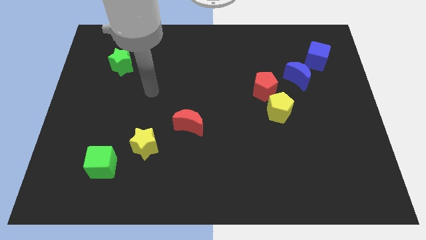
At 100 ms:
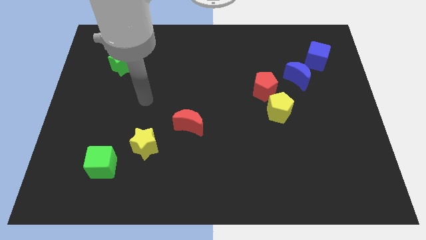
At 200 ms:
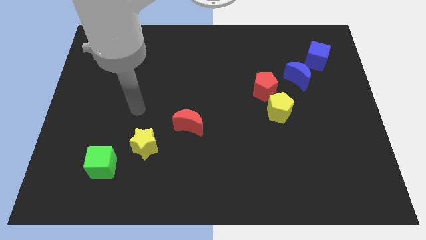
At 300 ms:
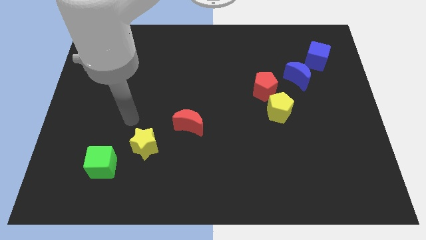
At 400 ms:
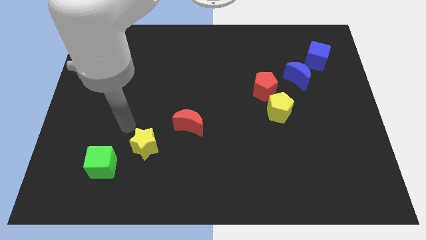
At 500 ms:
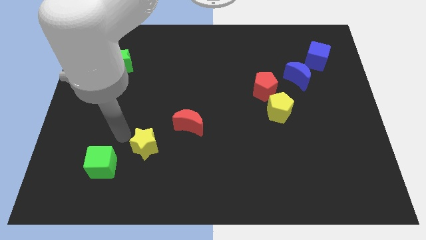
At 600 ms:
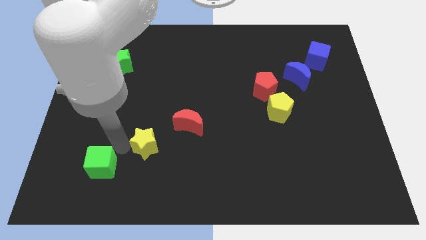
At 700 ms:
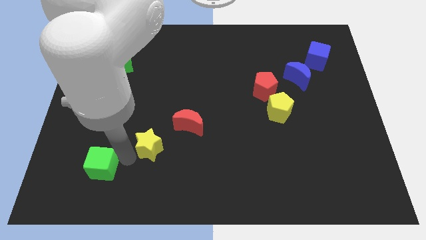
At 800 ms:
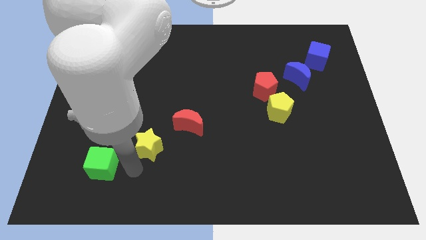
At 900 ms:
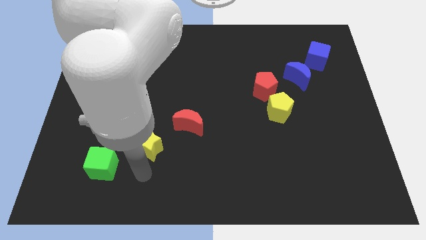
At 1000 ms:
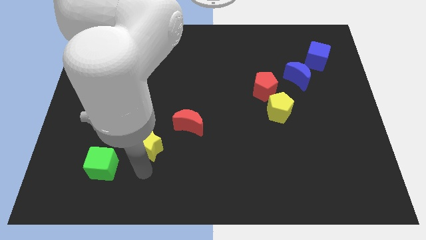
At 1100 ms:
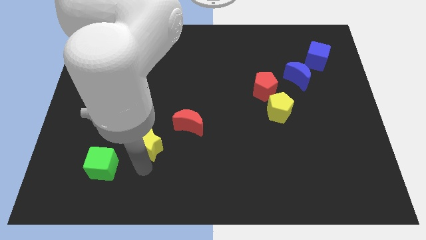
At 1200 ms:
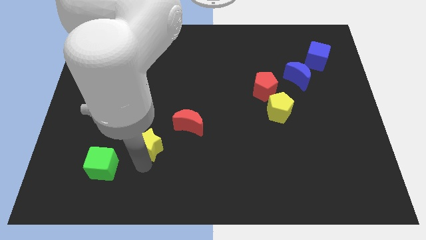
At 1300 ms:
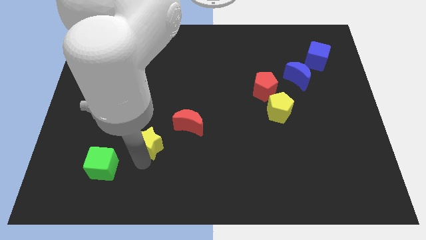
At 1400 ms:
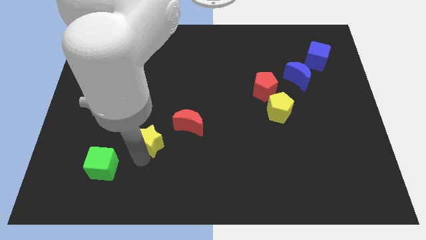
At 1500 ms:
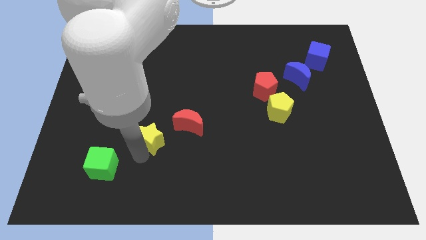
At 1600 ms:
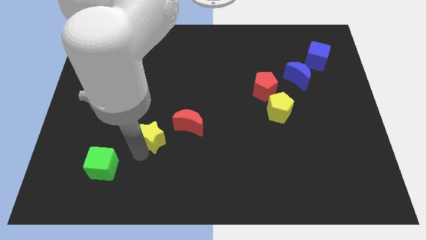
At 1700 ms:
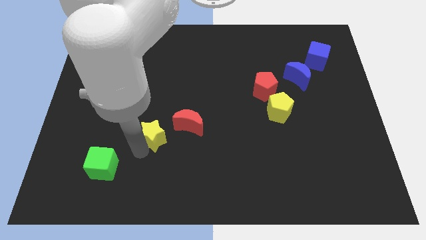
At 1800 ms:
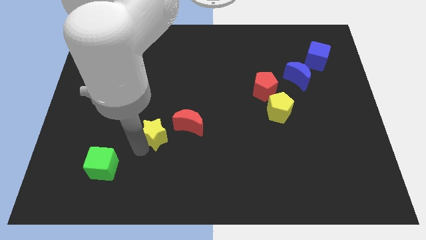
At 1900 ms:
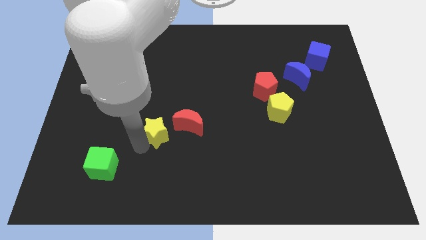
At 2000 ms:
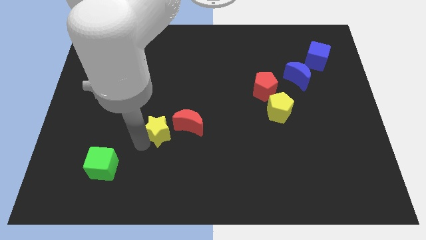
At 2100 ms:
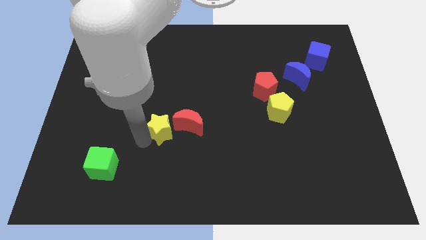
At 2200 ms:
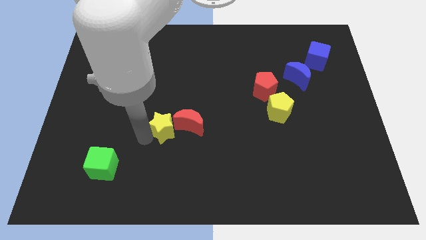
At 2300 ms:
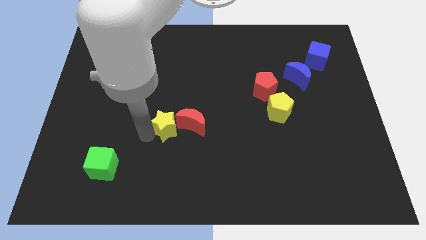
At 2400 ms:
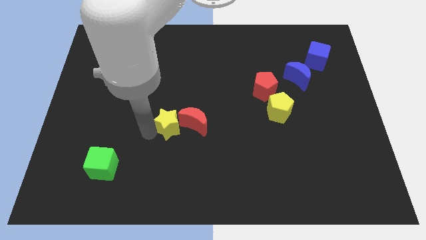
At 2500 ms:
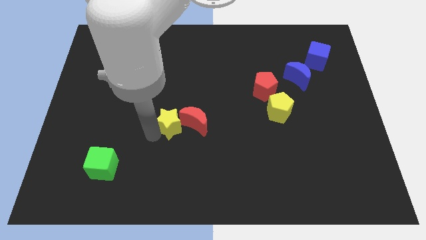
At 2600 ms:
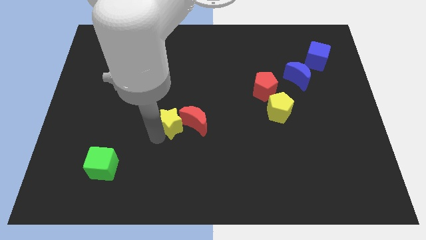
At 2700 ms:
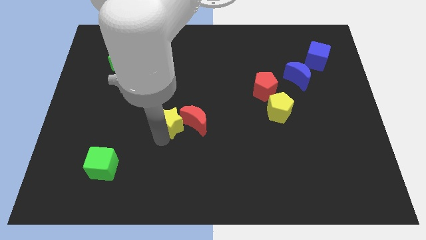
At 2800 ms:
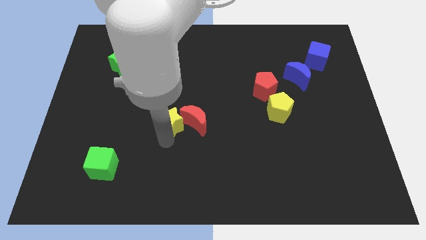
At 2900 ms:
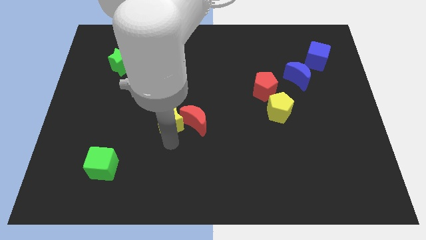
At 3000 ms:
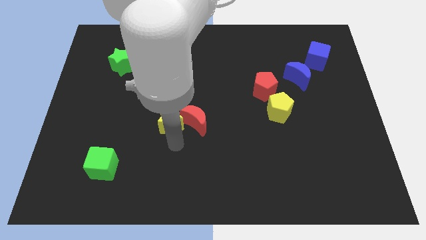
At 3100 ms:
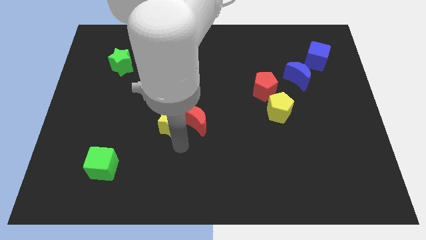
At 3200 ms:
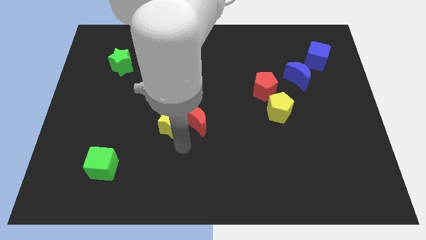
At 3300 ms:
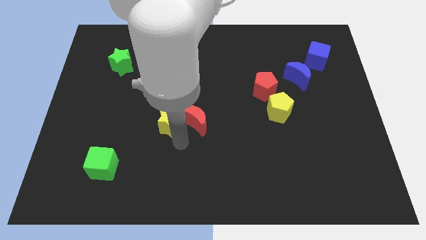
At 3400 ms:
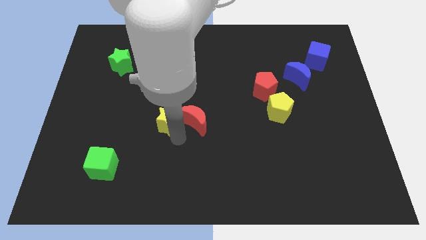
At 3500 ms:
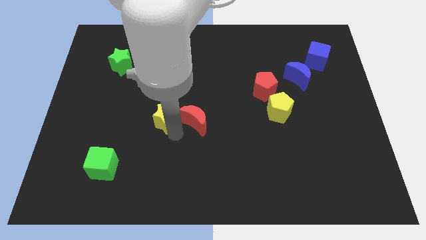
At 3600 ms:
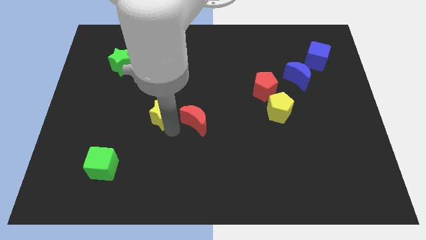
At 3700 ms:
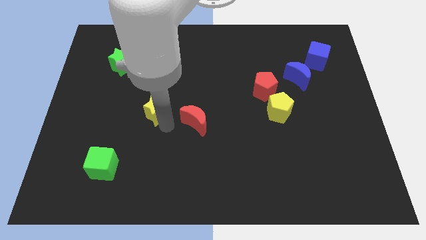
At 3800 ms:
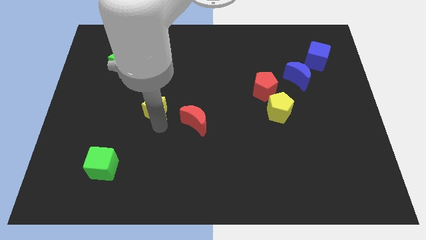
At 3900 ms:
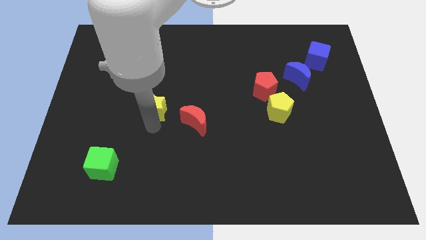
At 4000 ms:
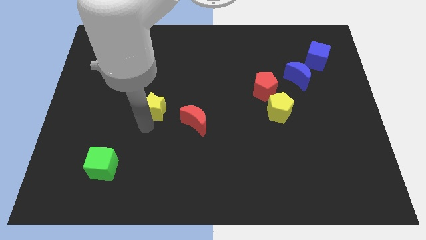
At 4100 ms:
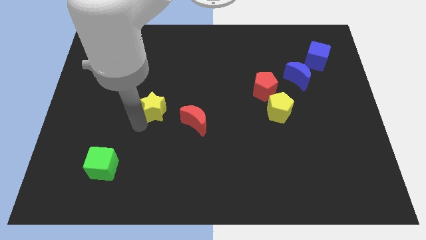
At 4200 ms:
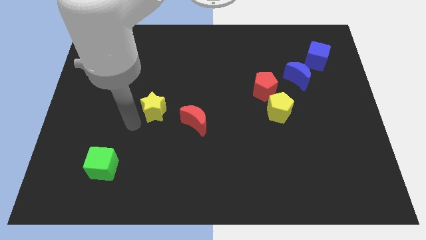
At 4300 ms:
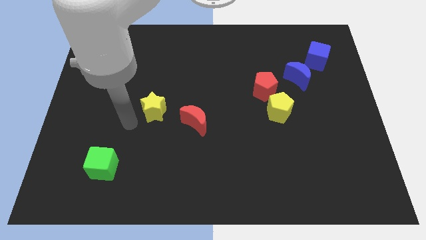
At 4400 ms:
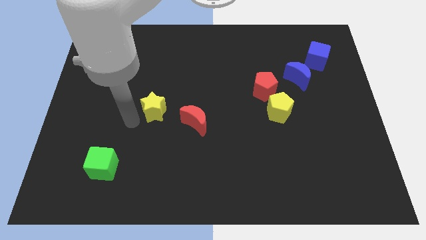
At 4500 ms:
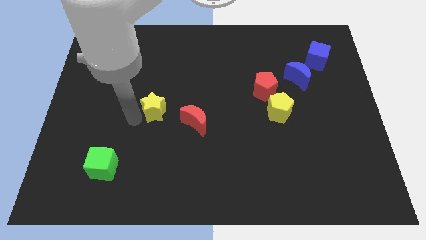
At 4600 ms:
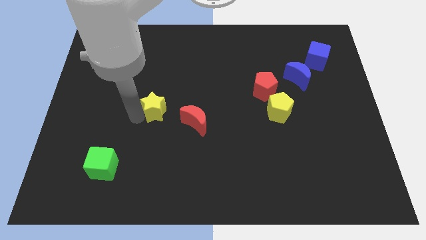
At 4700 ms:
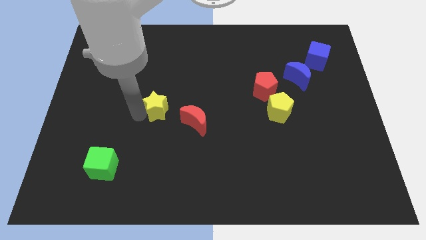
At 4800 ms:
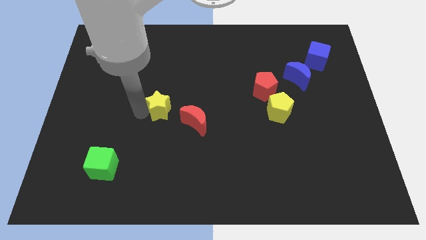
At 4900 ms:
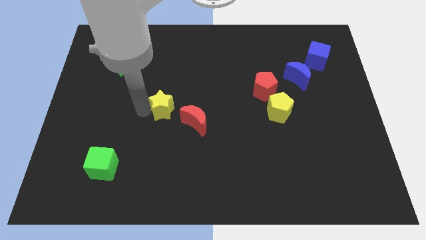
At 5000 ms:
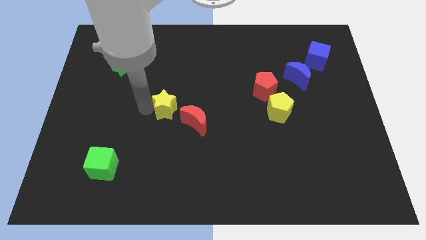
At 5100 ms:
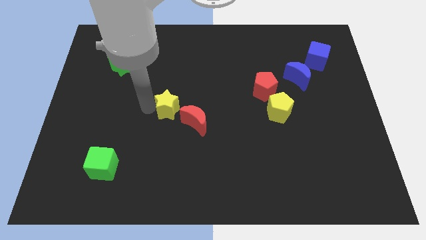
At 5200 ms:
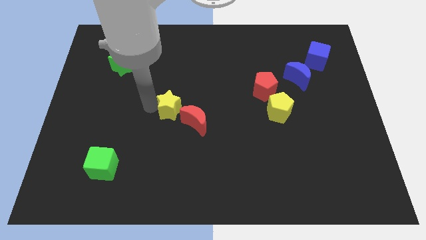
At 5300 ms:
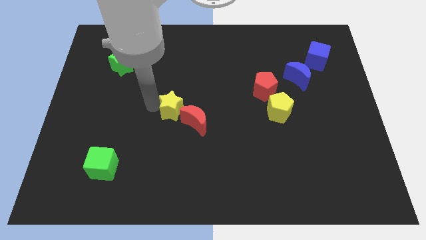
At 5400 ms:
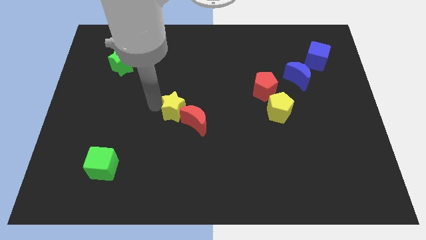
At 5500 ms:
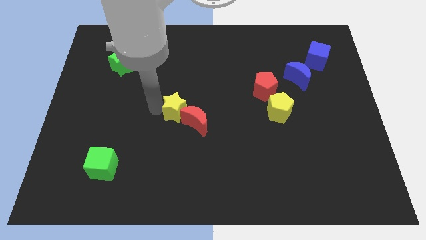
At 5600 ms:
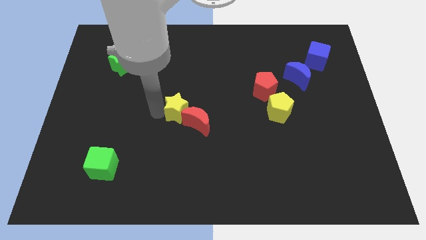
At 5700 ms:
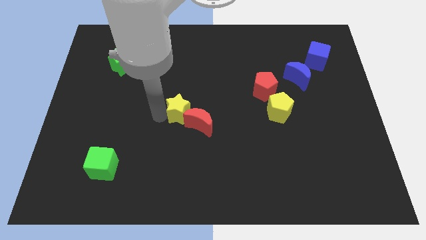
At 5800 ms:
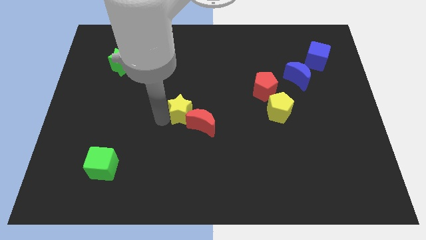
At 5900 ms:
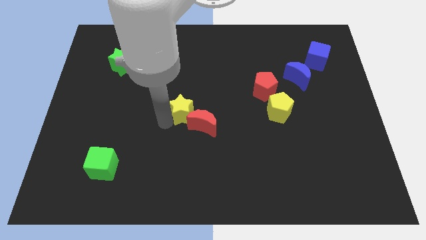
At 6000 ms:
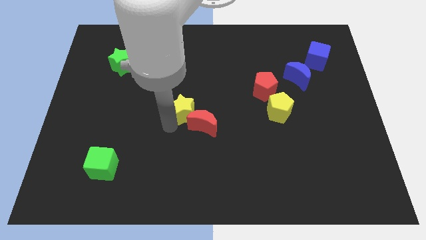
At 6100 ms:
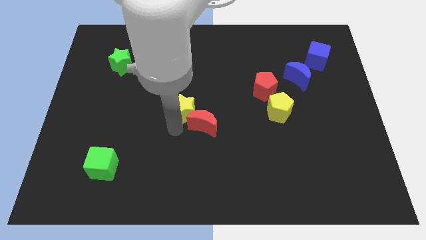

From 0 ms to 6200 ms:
push the yellow star above the red moon

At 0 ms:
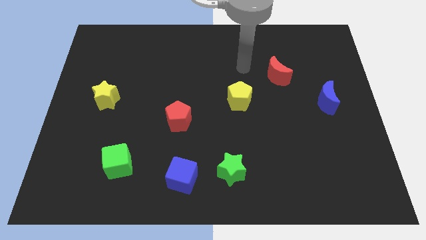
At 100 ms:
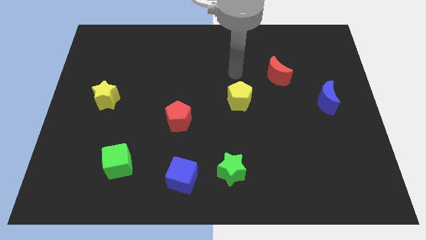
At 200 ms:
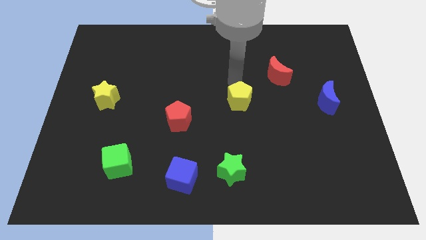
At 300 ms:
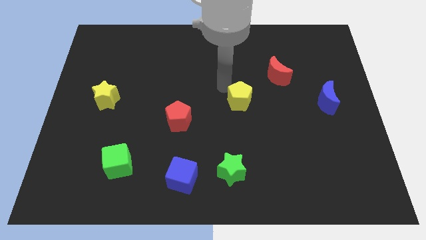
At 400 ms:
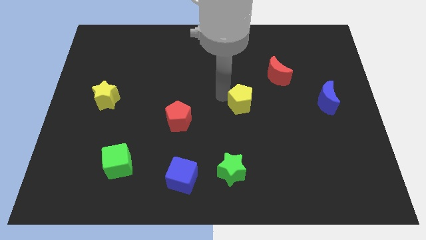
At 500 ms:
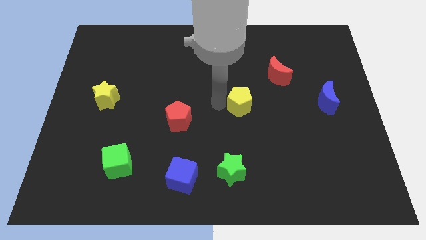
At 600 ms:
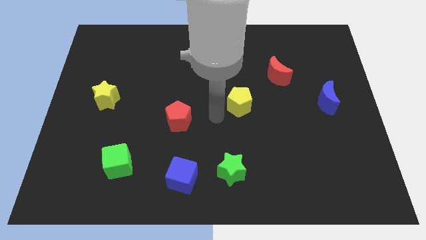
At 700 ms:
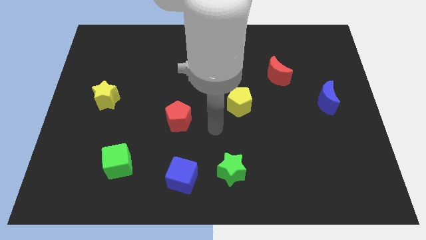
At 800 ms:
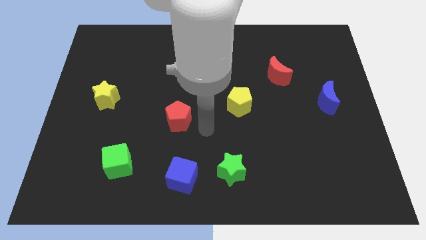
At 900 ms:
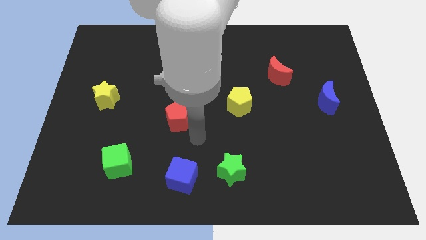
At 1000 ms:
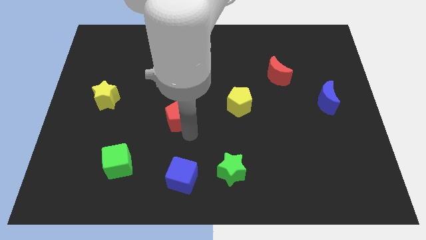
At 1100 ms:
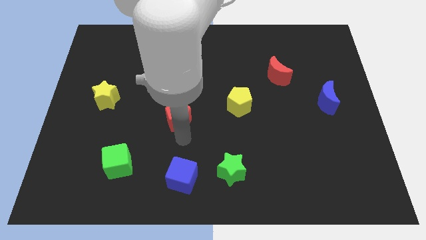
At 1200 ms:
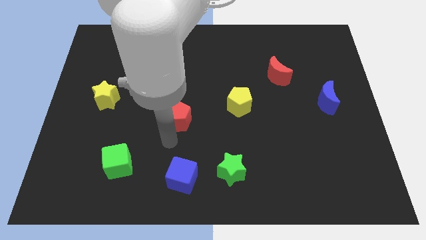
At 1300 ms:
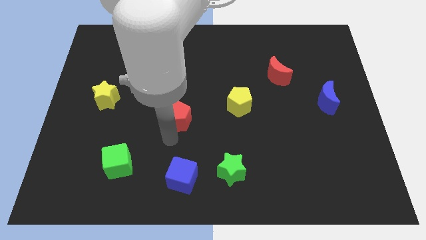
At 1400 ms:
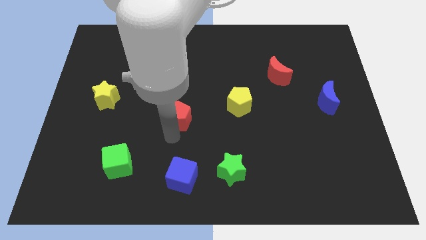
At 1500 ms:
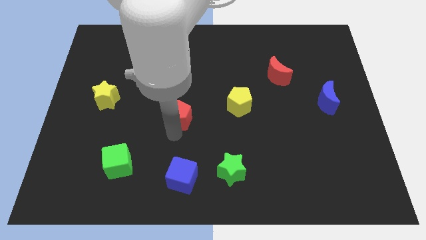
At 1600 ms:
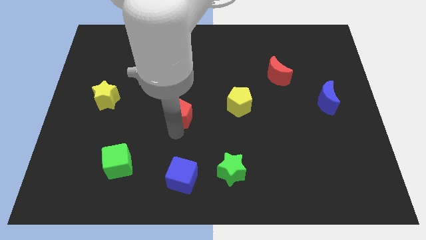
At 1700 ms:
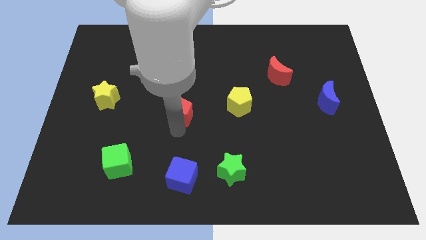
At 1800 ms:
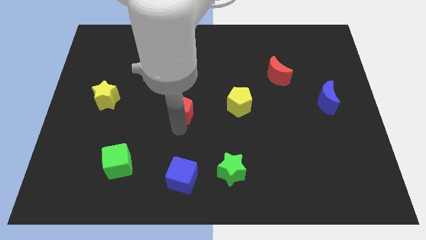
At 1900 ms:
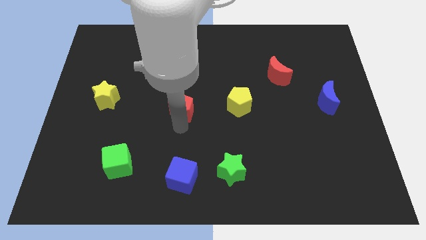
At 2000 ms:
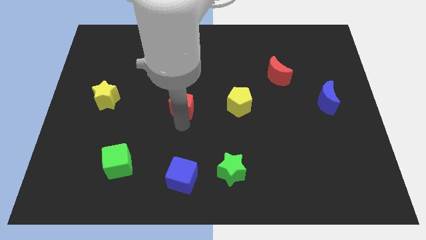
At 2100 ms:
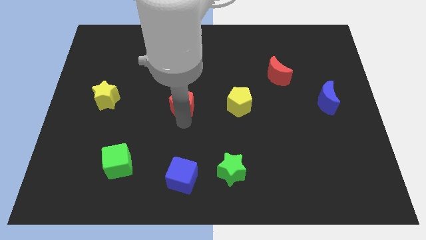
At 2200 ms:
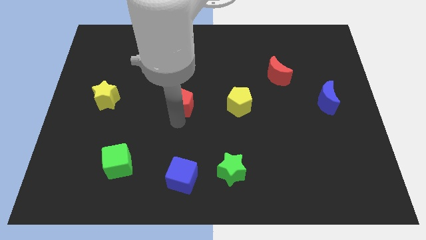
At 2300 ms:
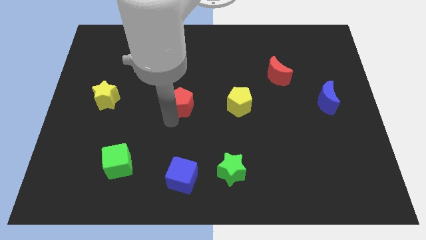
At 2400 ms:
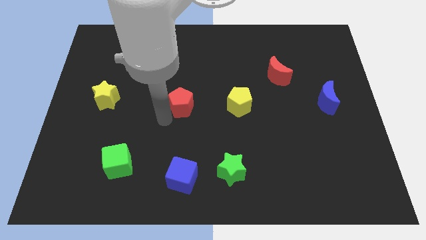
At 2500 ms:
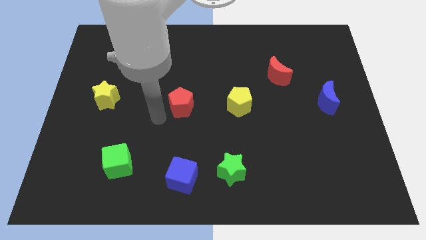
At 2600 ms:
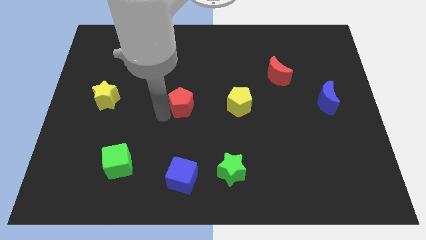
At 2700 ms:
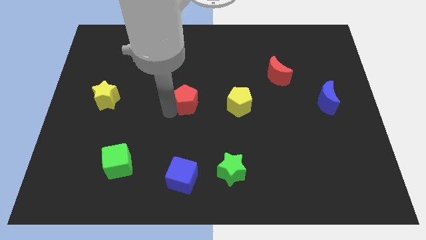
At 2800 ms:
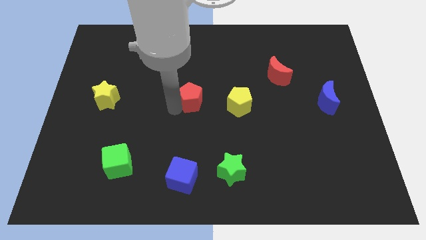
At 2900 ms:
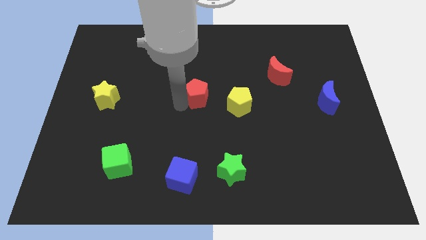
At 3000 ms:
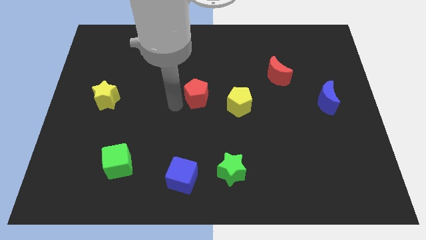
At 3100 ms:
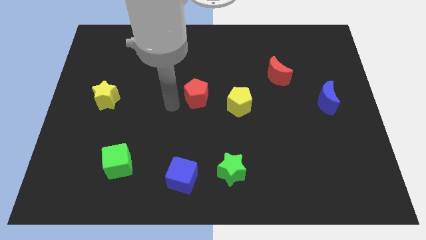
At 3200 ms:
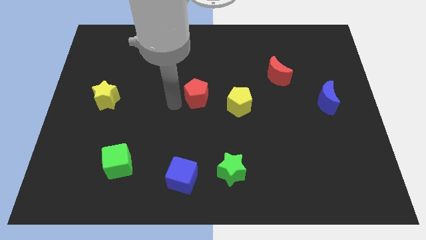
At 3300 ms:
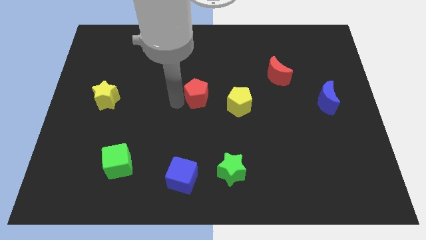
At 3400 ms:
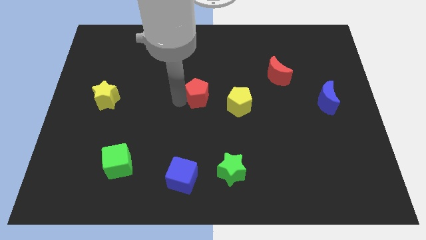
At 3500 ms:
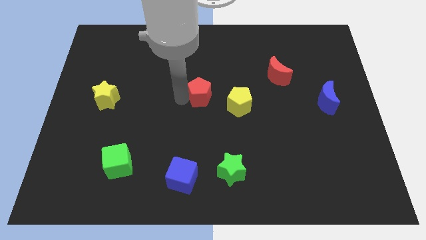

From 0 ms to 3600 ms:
slide the red pentagon diagonally up and to the left of the yellow pentagon
